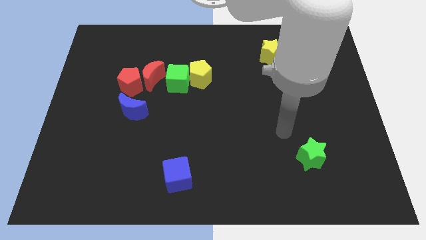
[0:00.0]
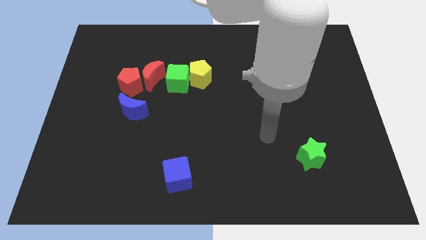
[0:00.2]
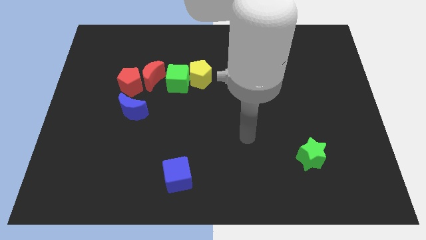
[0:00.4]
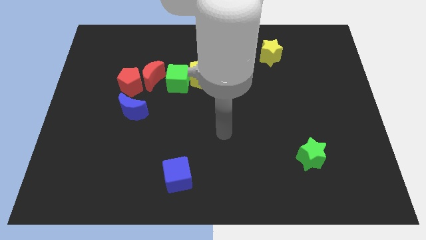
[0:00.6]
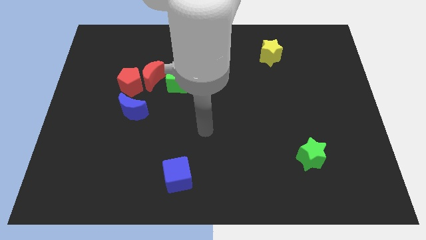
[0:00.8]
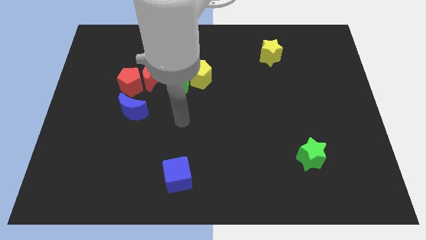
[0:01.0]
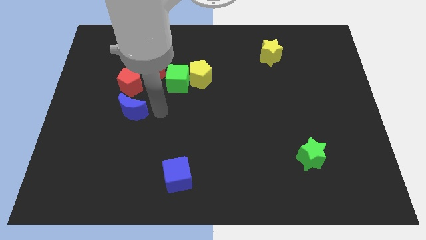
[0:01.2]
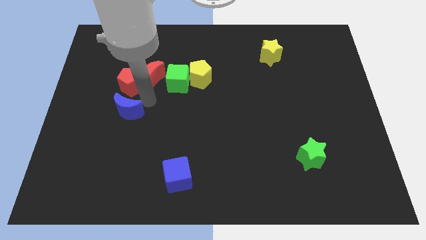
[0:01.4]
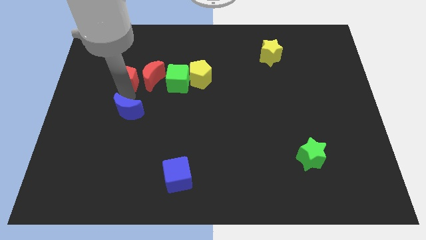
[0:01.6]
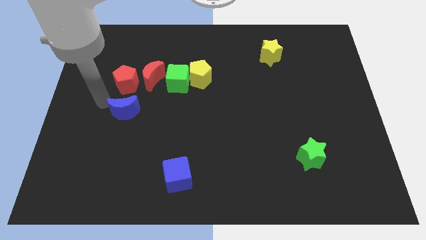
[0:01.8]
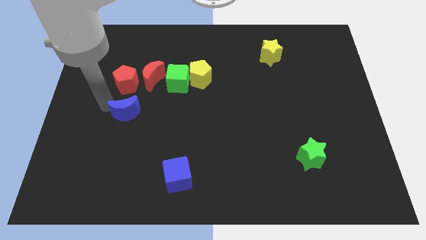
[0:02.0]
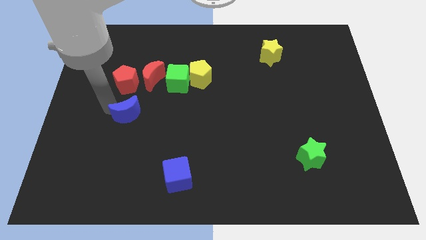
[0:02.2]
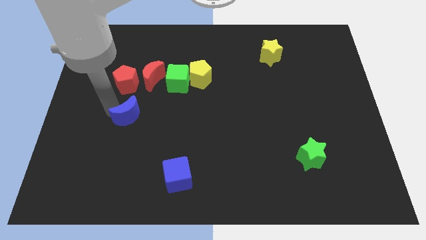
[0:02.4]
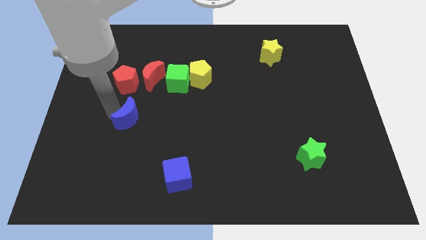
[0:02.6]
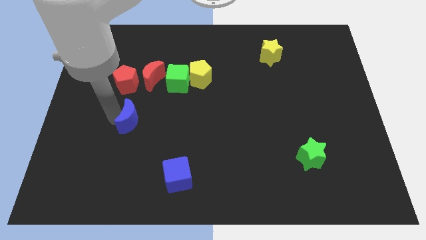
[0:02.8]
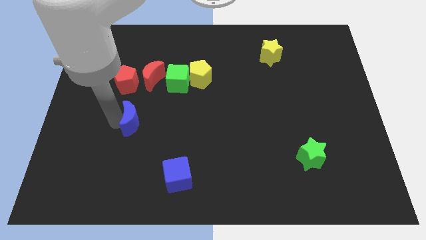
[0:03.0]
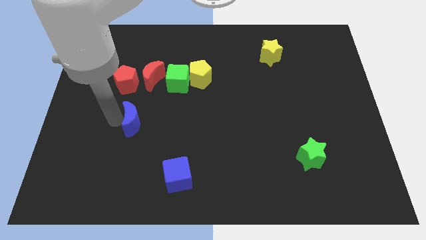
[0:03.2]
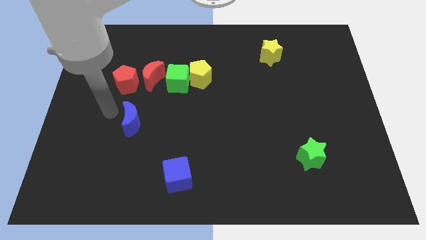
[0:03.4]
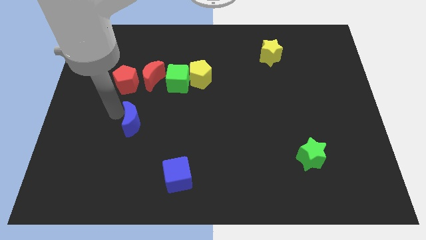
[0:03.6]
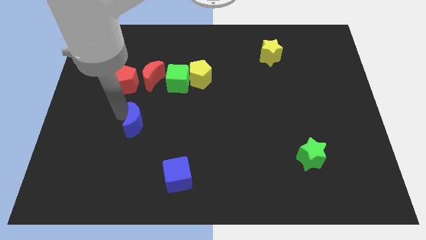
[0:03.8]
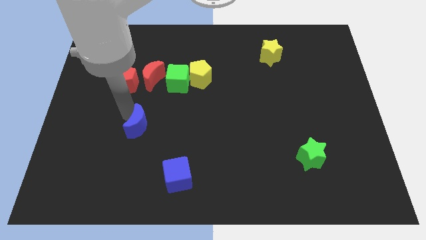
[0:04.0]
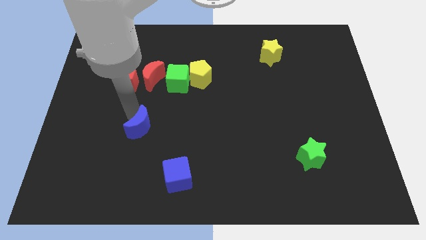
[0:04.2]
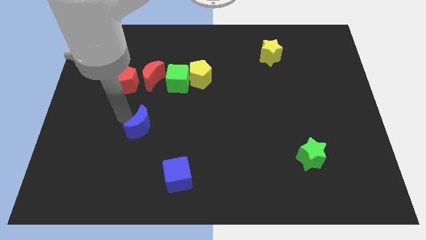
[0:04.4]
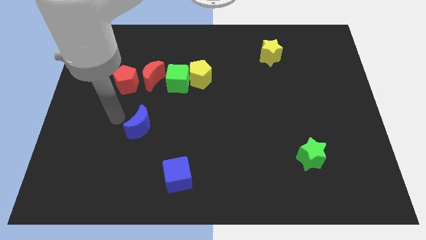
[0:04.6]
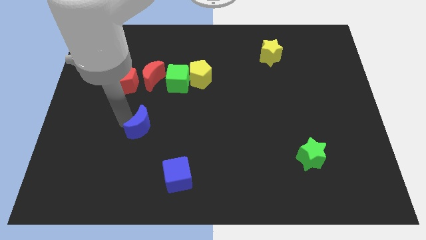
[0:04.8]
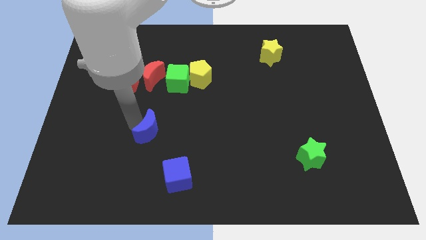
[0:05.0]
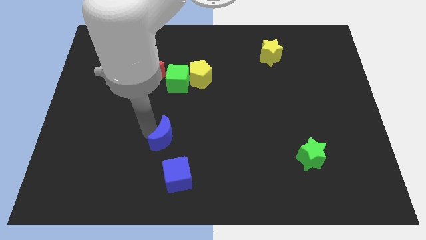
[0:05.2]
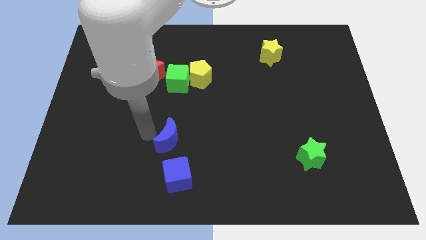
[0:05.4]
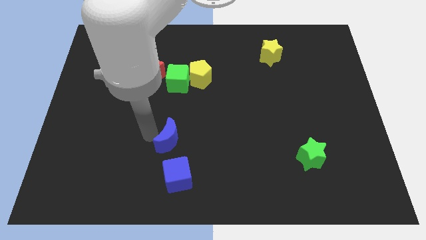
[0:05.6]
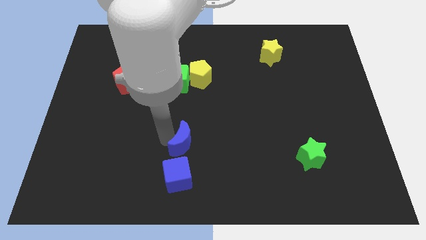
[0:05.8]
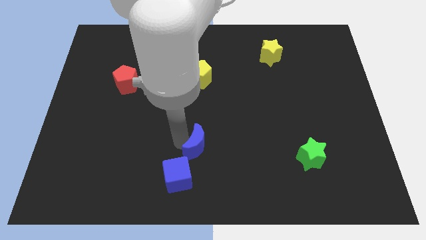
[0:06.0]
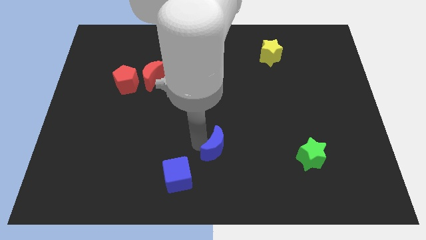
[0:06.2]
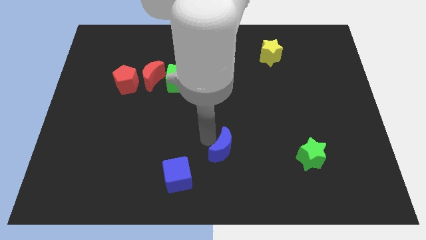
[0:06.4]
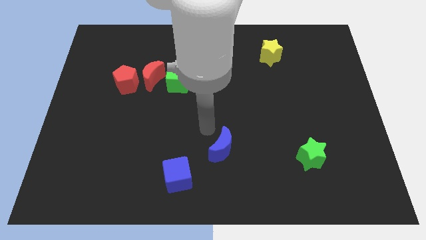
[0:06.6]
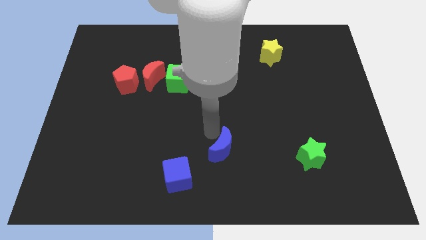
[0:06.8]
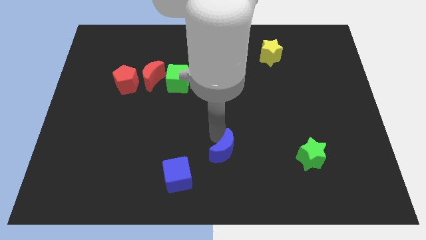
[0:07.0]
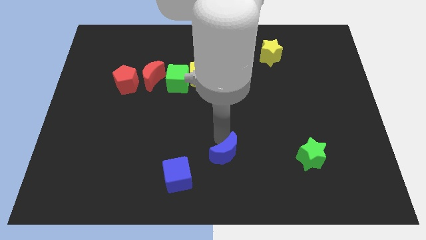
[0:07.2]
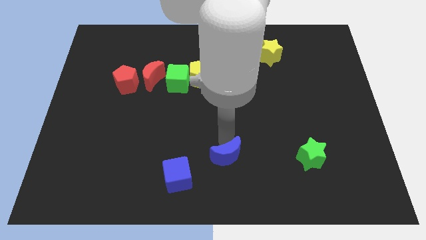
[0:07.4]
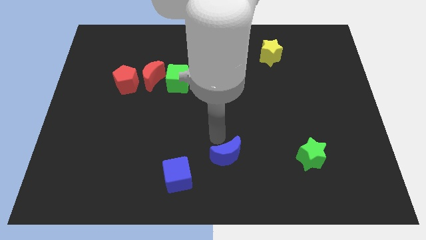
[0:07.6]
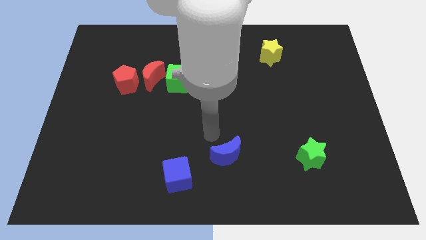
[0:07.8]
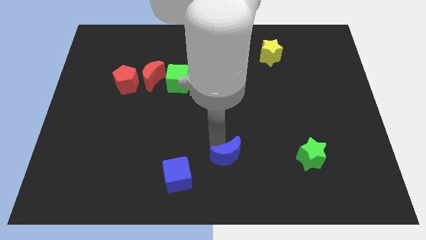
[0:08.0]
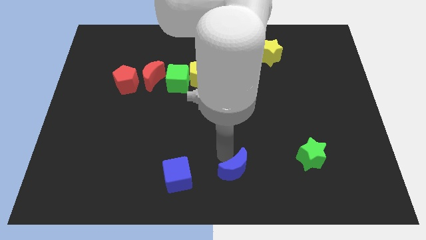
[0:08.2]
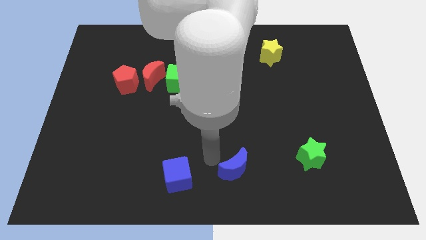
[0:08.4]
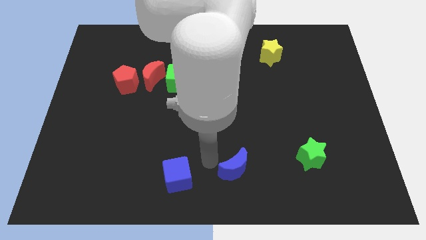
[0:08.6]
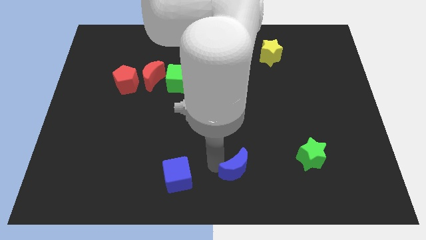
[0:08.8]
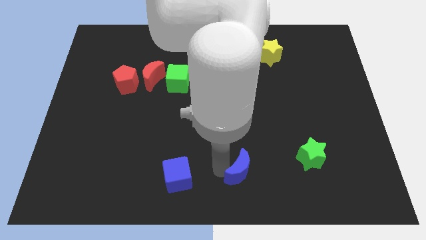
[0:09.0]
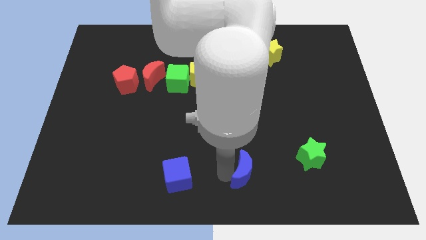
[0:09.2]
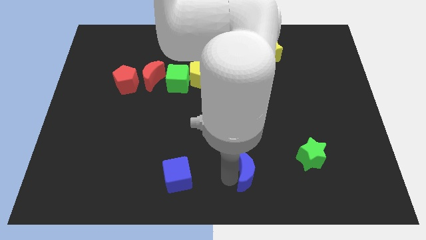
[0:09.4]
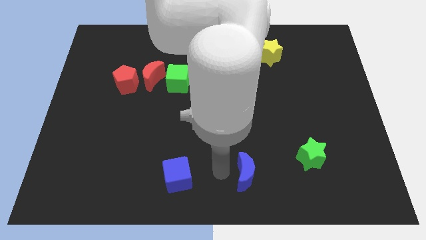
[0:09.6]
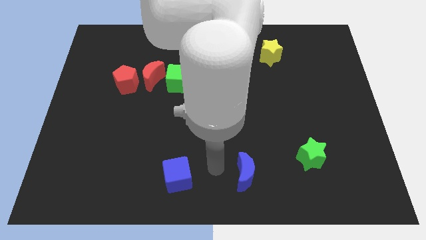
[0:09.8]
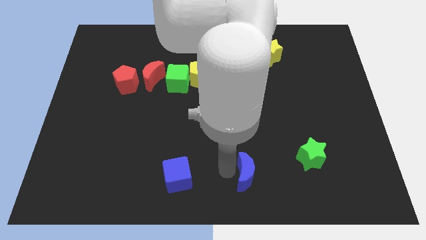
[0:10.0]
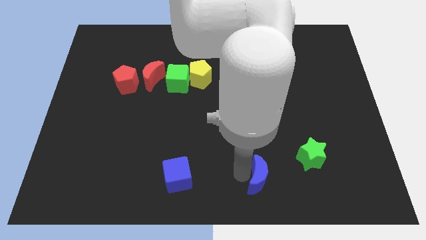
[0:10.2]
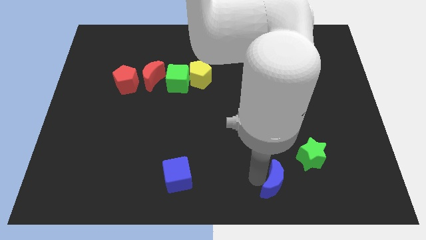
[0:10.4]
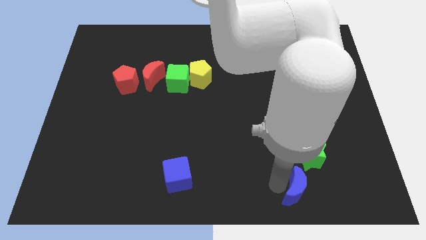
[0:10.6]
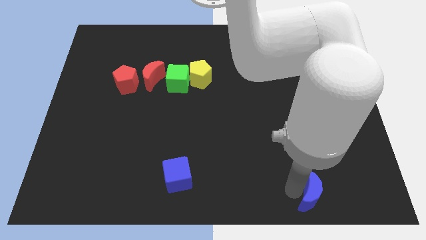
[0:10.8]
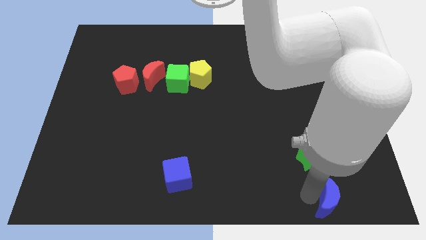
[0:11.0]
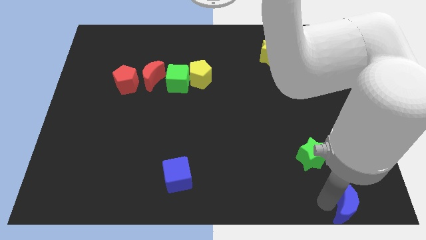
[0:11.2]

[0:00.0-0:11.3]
move the blue moon to the bottom right corner
